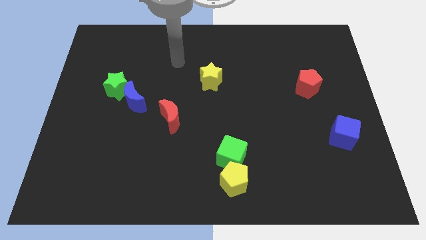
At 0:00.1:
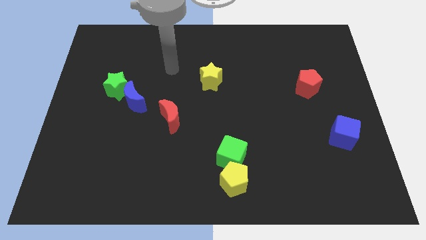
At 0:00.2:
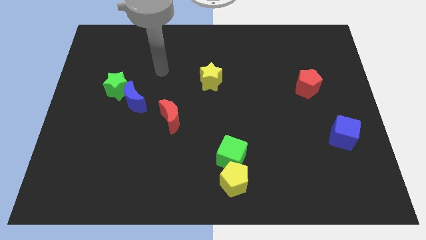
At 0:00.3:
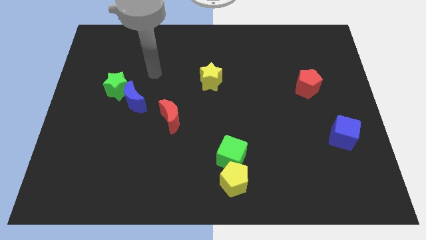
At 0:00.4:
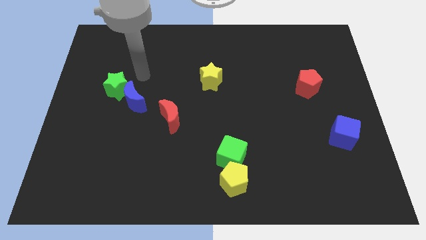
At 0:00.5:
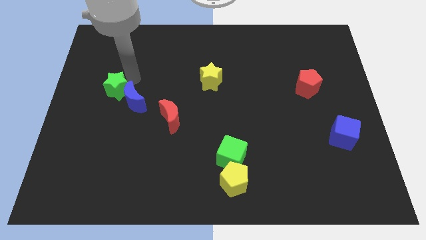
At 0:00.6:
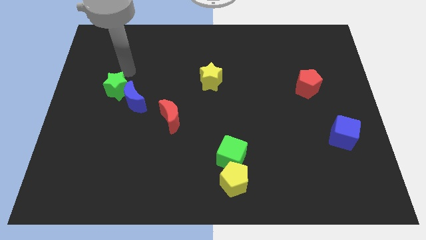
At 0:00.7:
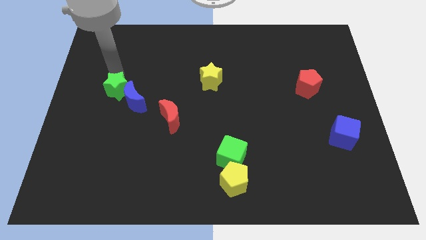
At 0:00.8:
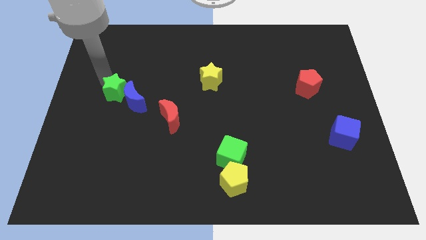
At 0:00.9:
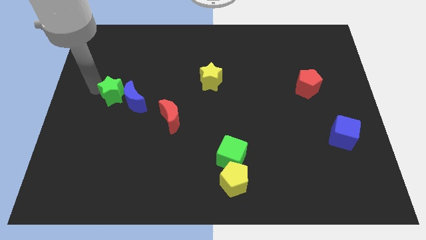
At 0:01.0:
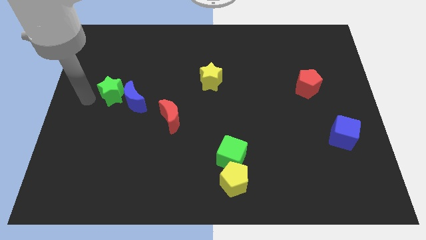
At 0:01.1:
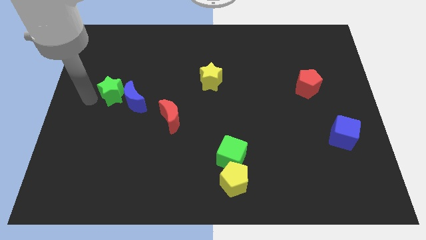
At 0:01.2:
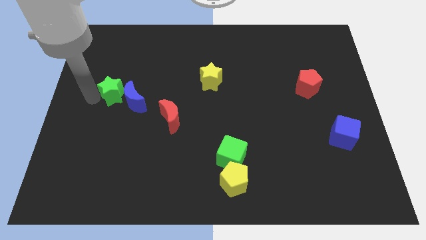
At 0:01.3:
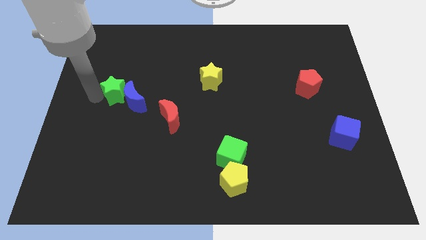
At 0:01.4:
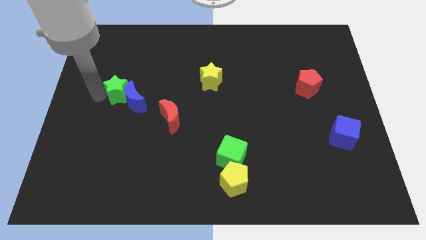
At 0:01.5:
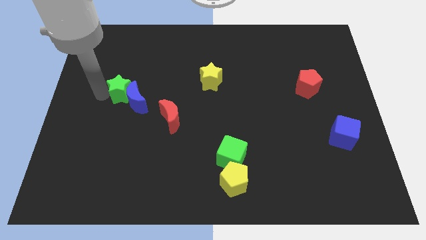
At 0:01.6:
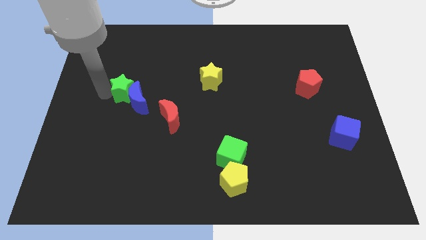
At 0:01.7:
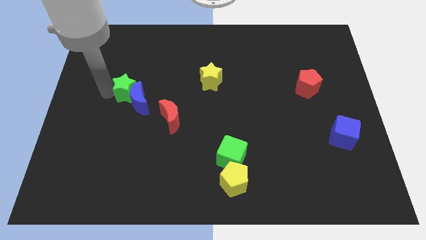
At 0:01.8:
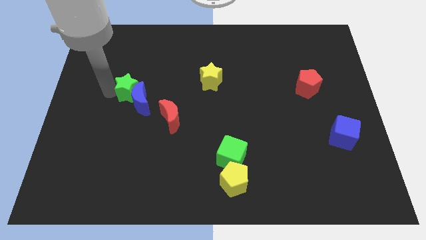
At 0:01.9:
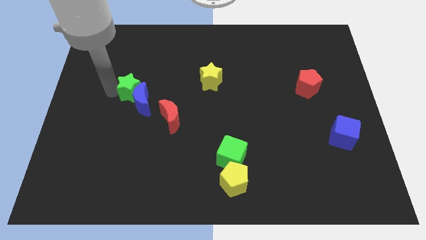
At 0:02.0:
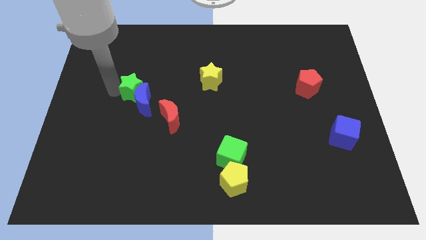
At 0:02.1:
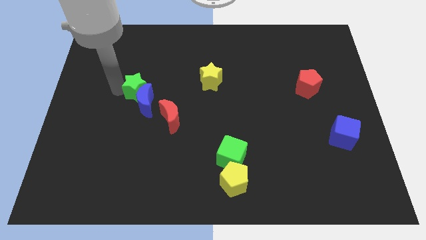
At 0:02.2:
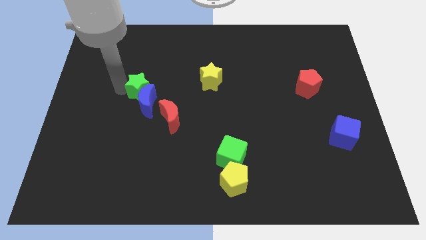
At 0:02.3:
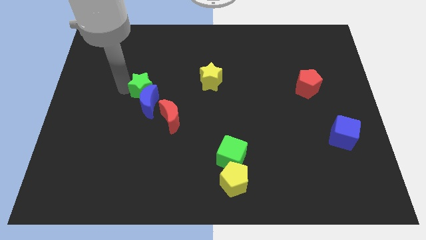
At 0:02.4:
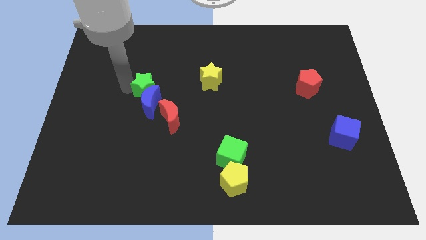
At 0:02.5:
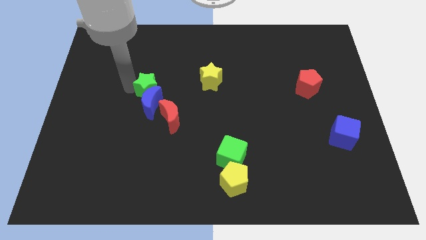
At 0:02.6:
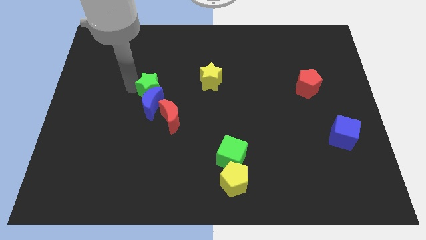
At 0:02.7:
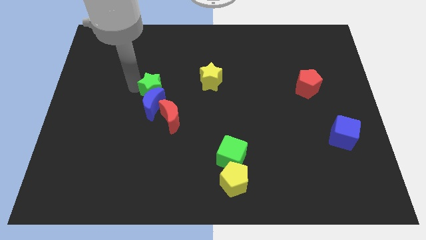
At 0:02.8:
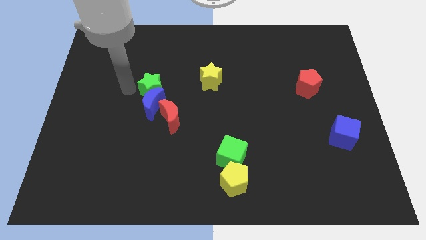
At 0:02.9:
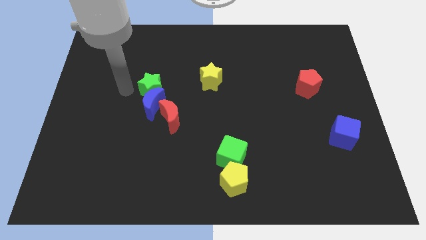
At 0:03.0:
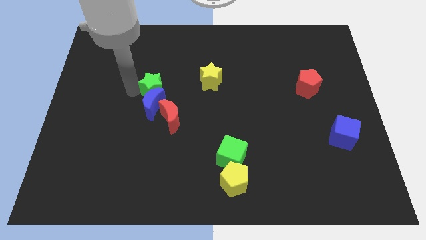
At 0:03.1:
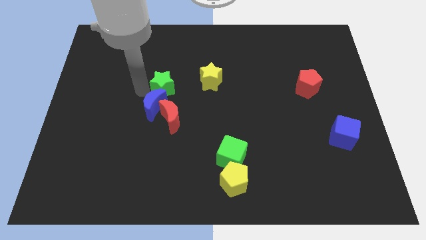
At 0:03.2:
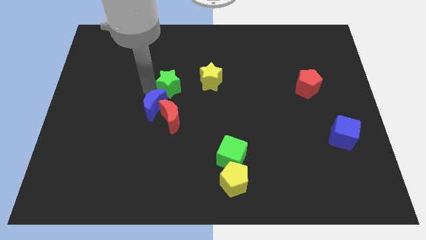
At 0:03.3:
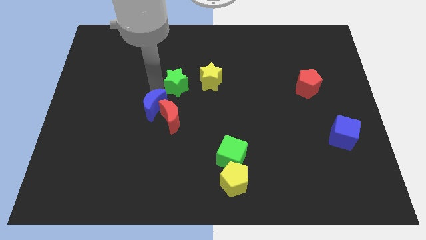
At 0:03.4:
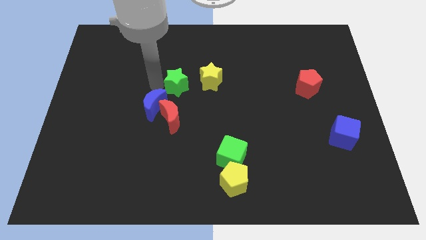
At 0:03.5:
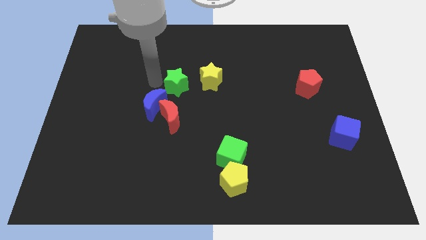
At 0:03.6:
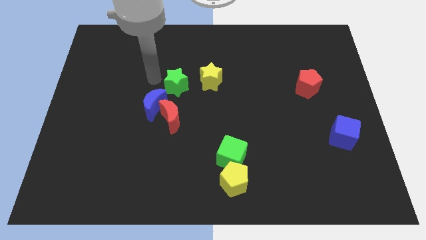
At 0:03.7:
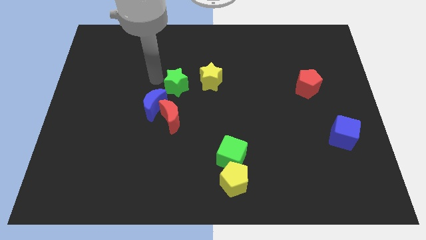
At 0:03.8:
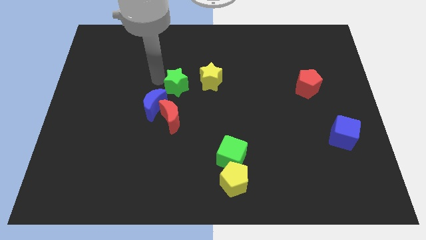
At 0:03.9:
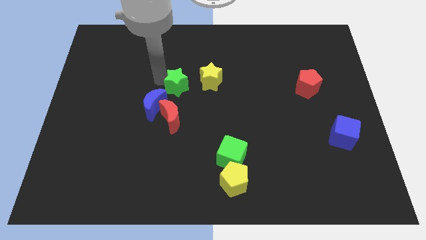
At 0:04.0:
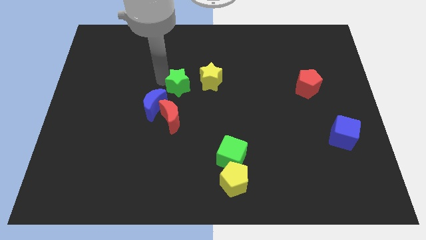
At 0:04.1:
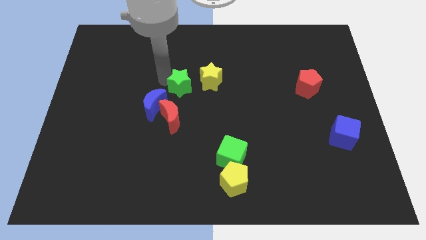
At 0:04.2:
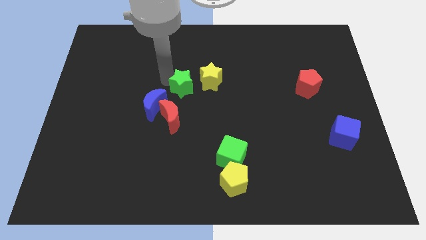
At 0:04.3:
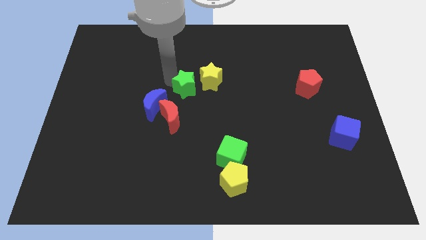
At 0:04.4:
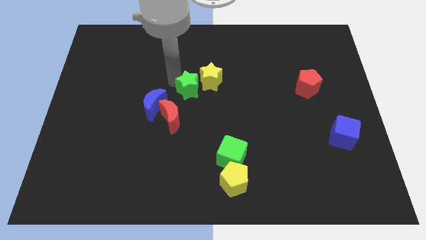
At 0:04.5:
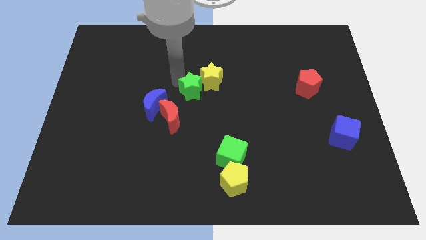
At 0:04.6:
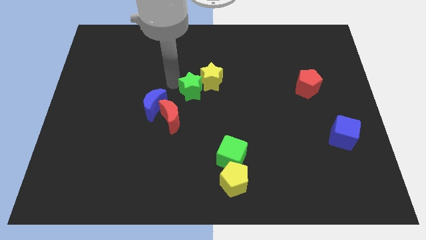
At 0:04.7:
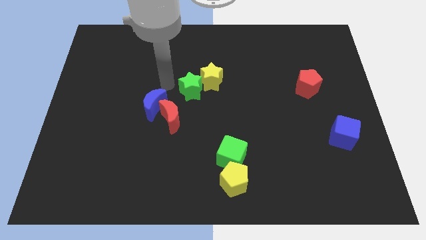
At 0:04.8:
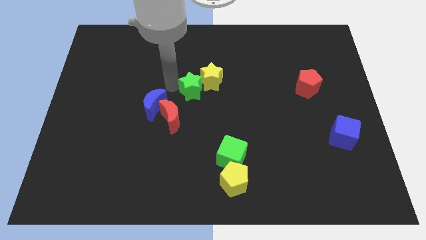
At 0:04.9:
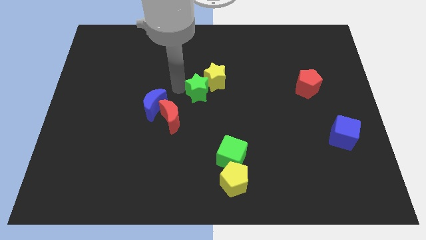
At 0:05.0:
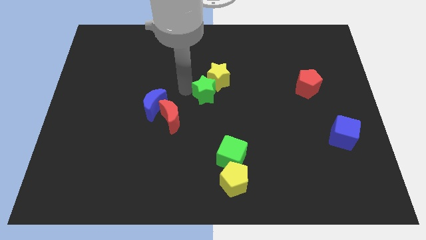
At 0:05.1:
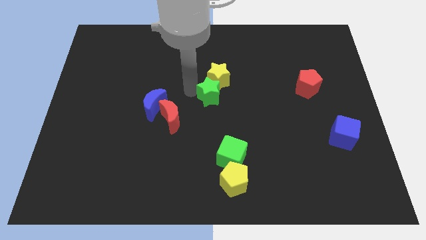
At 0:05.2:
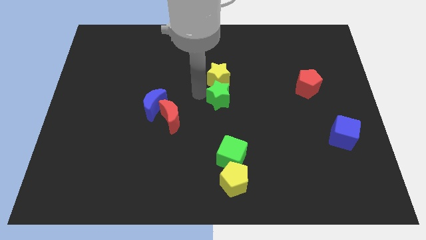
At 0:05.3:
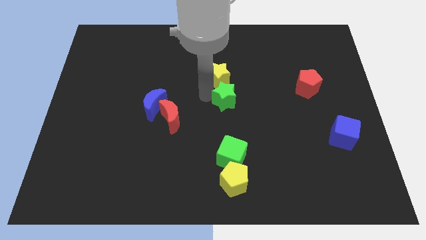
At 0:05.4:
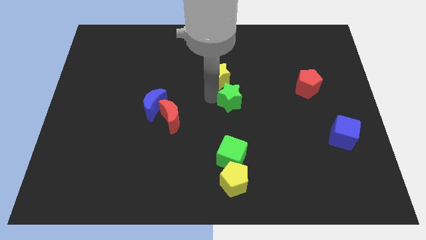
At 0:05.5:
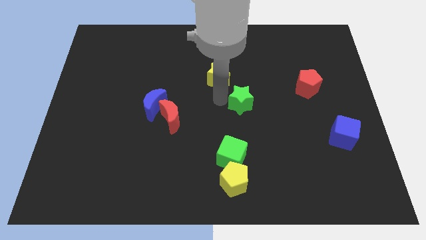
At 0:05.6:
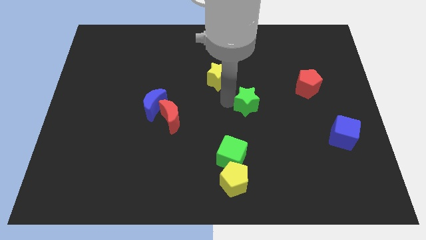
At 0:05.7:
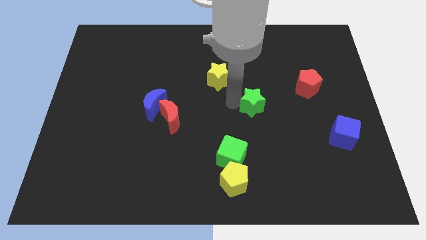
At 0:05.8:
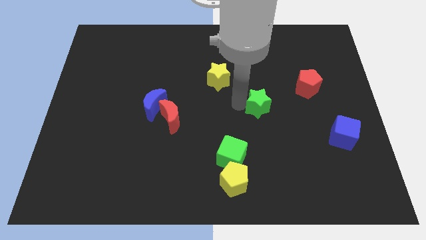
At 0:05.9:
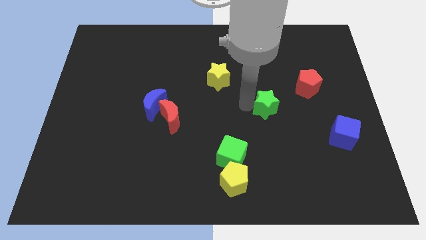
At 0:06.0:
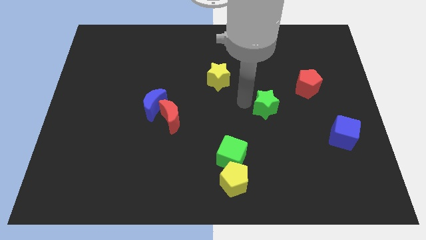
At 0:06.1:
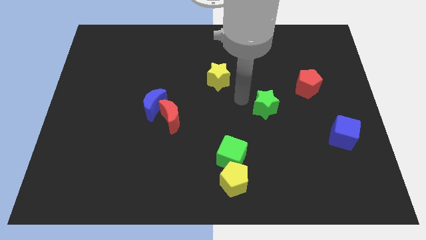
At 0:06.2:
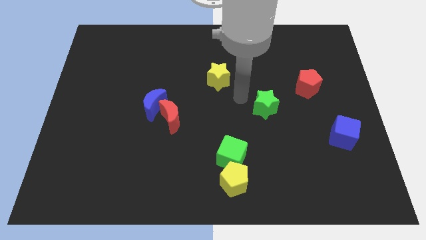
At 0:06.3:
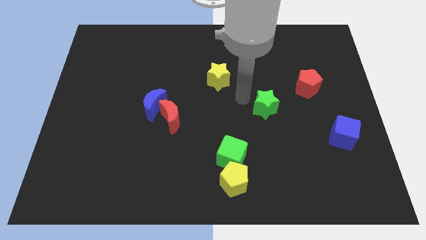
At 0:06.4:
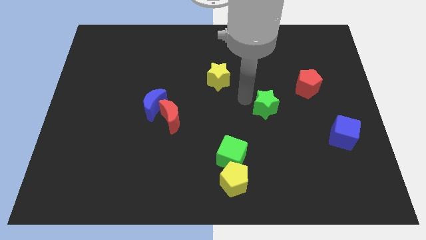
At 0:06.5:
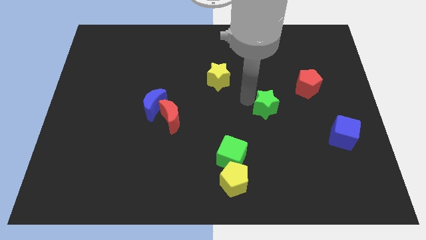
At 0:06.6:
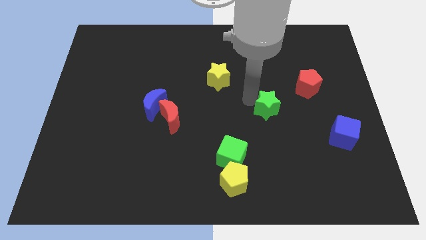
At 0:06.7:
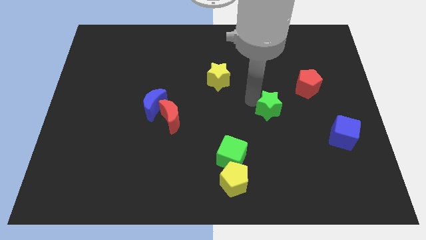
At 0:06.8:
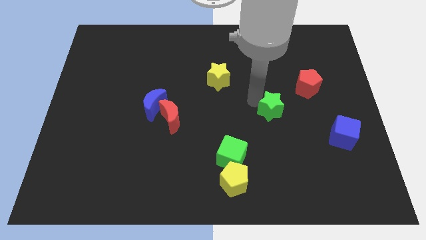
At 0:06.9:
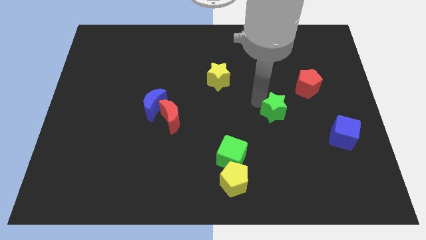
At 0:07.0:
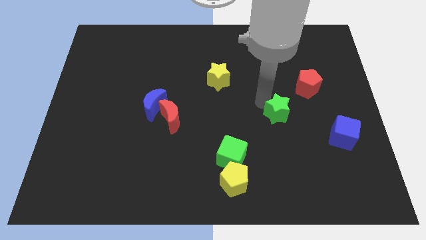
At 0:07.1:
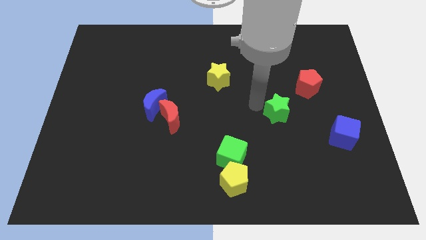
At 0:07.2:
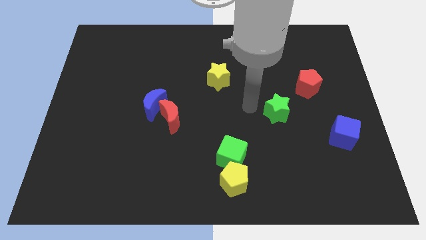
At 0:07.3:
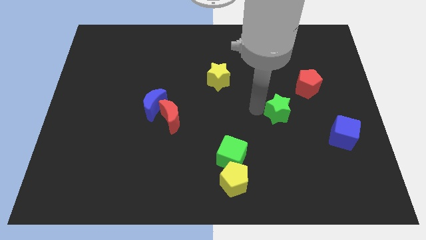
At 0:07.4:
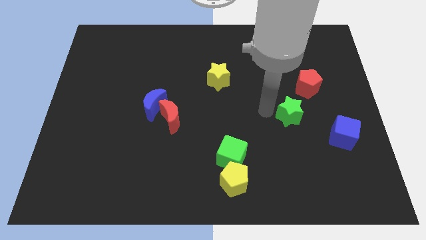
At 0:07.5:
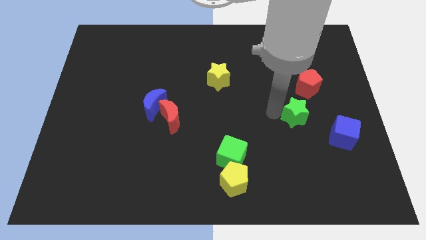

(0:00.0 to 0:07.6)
move the green star to the bottom of the red pentagon
